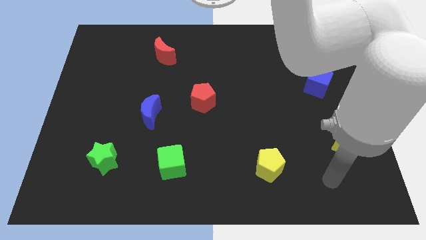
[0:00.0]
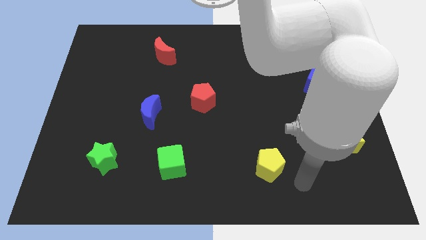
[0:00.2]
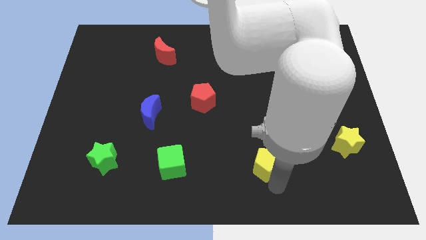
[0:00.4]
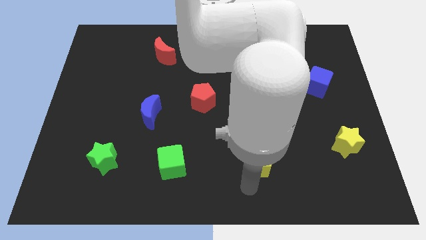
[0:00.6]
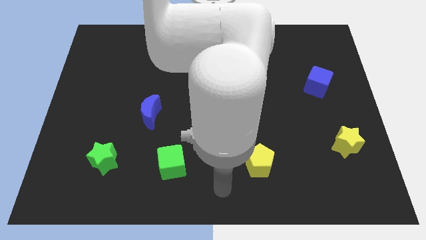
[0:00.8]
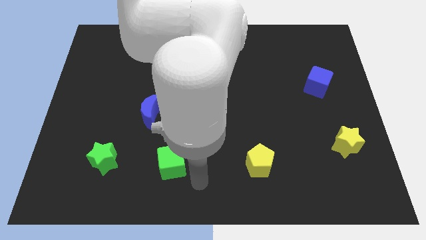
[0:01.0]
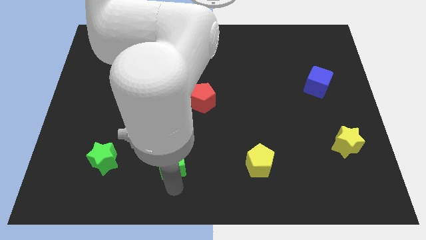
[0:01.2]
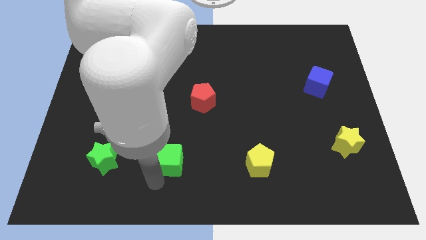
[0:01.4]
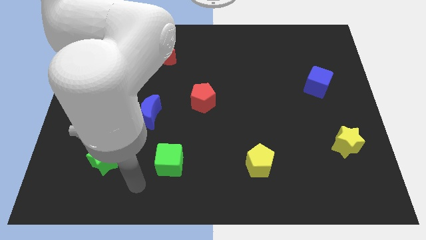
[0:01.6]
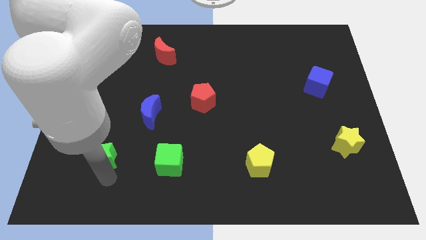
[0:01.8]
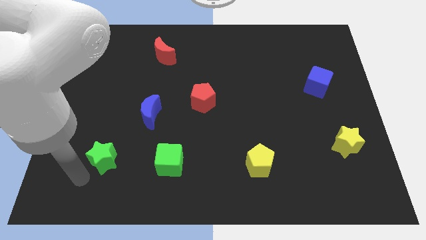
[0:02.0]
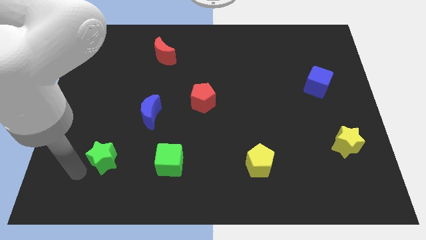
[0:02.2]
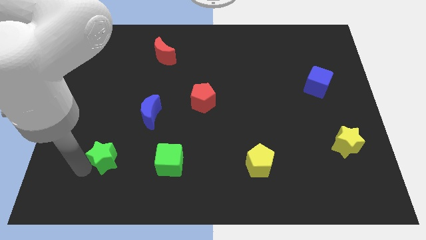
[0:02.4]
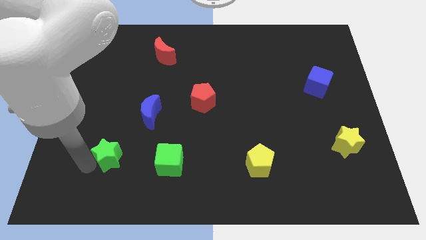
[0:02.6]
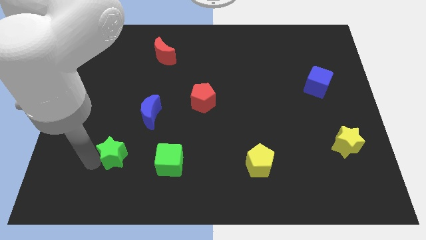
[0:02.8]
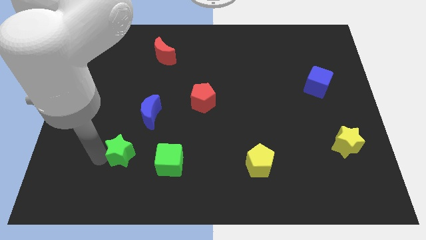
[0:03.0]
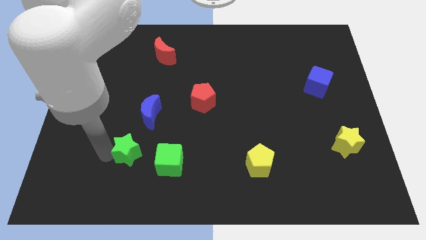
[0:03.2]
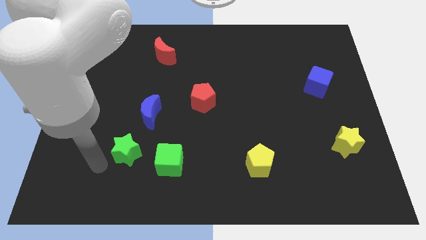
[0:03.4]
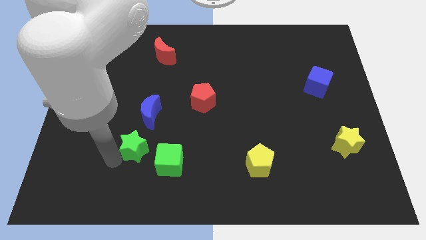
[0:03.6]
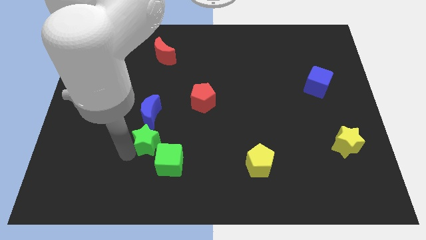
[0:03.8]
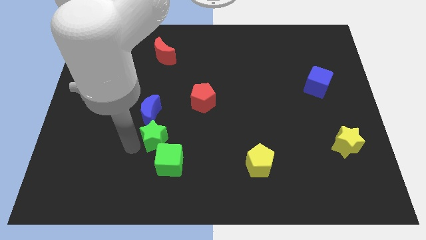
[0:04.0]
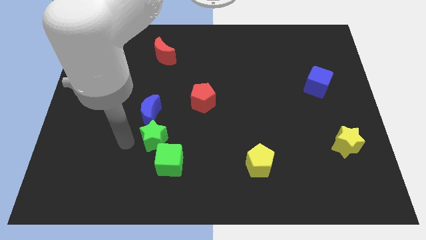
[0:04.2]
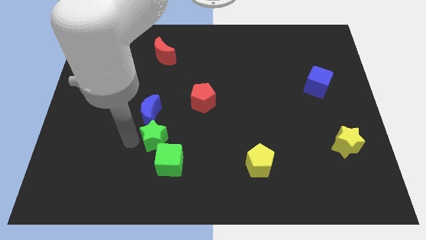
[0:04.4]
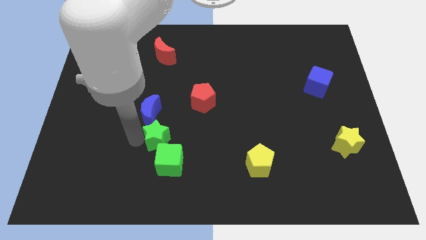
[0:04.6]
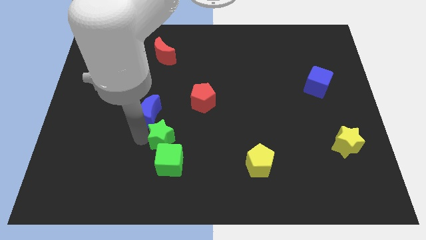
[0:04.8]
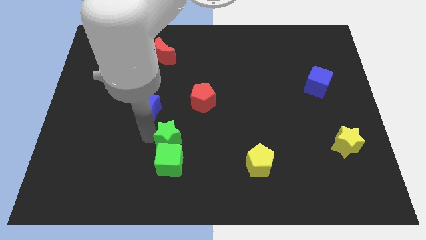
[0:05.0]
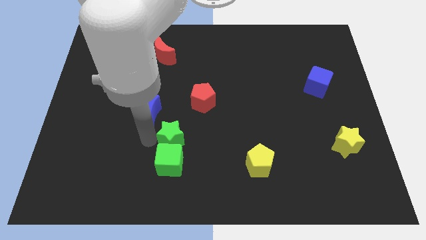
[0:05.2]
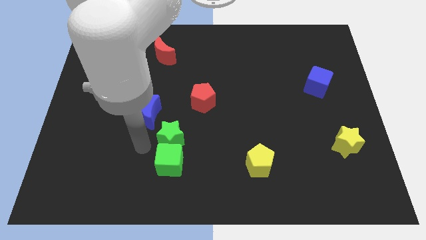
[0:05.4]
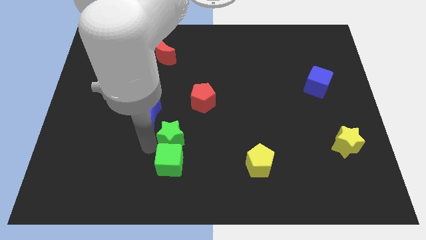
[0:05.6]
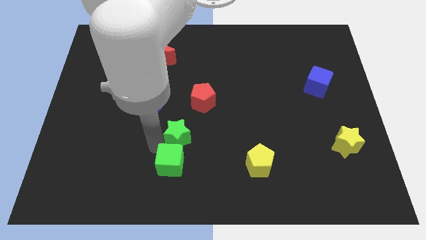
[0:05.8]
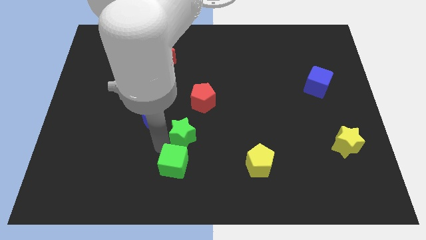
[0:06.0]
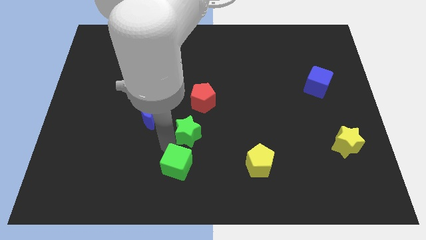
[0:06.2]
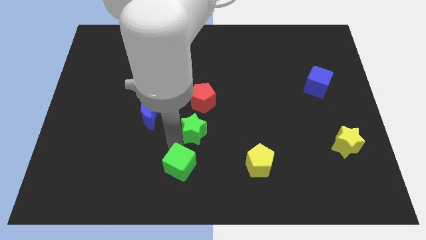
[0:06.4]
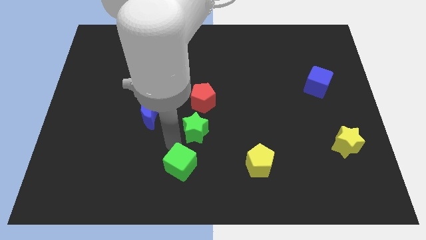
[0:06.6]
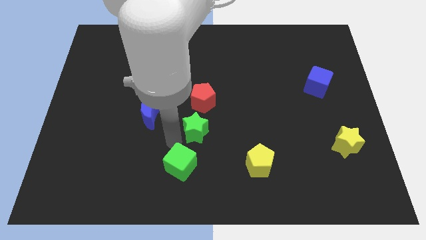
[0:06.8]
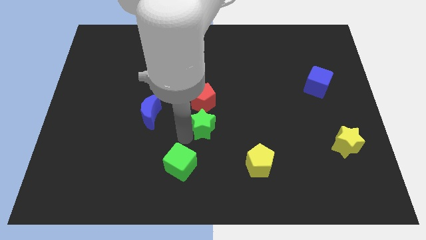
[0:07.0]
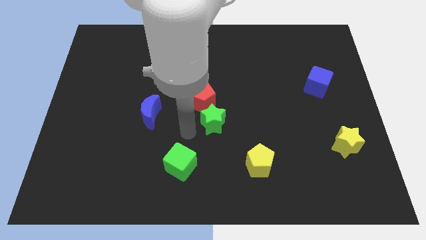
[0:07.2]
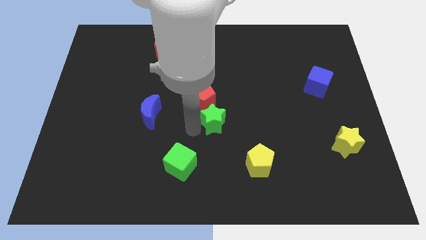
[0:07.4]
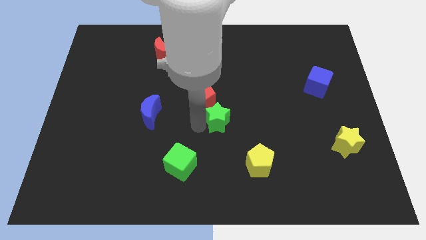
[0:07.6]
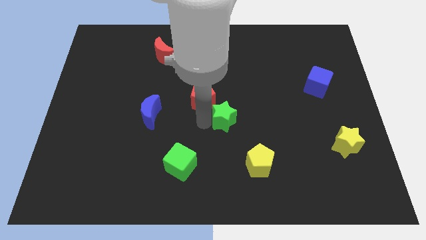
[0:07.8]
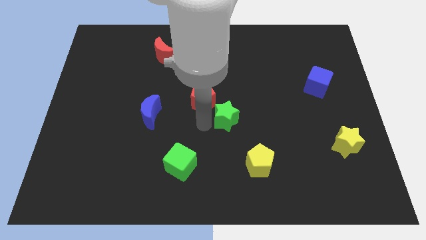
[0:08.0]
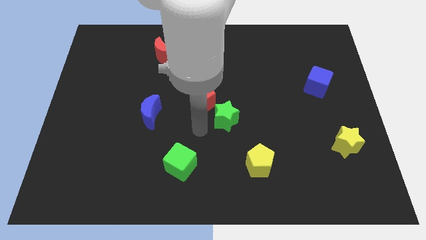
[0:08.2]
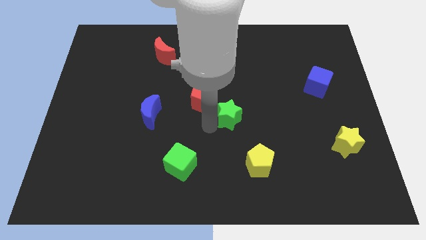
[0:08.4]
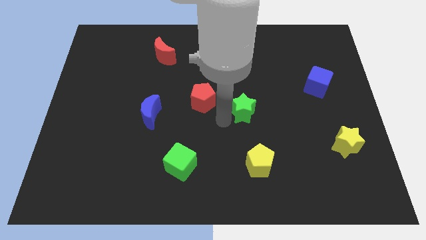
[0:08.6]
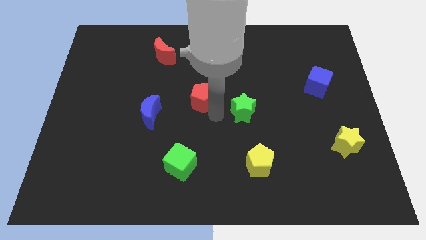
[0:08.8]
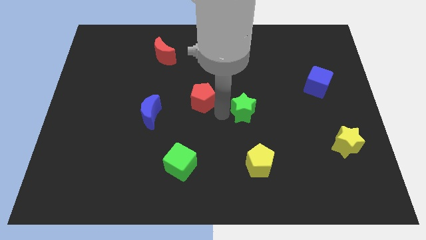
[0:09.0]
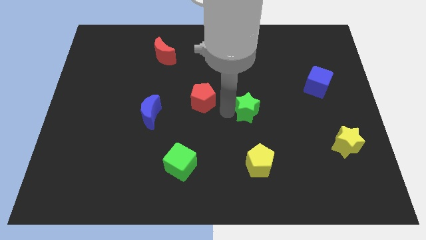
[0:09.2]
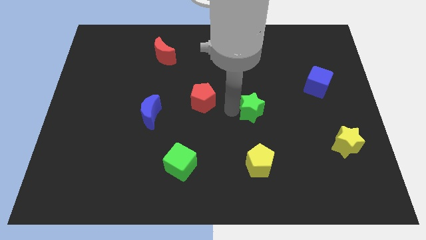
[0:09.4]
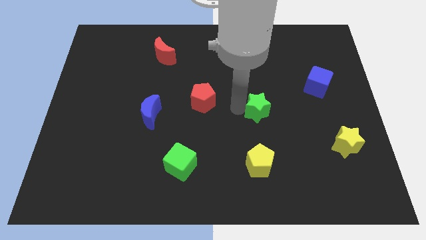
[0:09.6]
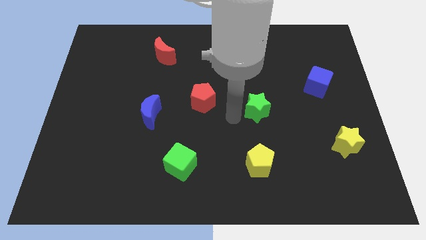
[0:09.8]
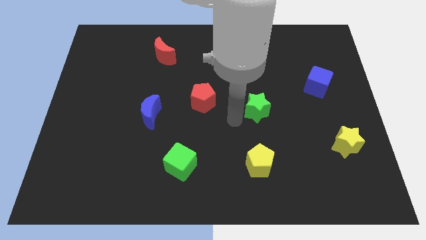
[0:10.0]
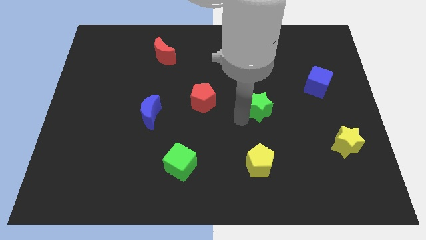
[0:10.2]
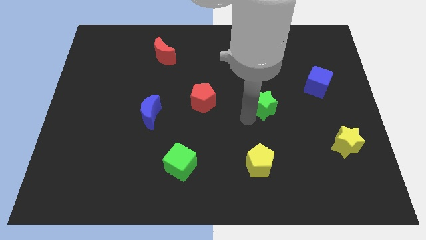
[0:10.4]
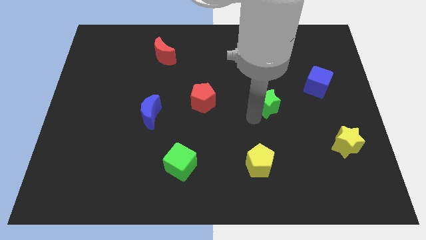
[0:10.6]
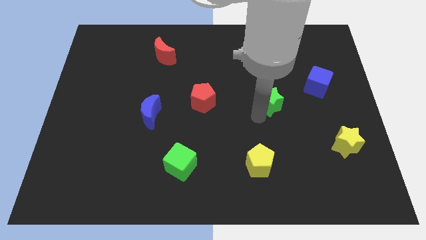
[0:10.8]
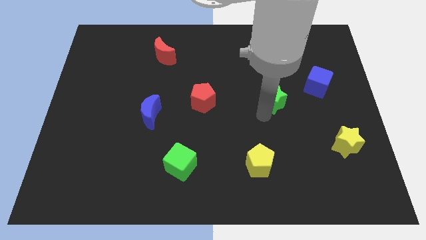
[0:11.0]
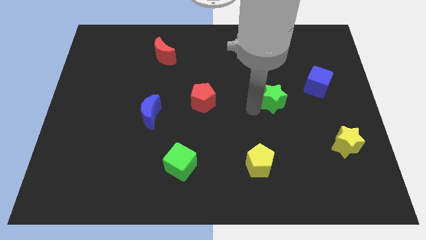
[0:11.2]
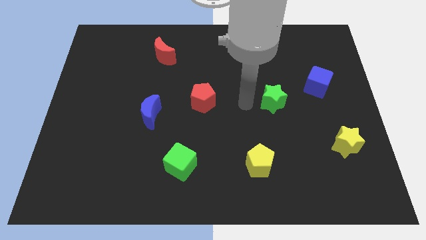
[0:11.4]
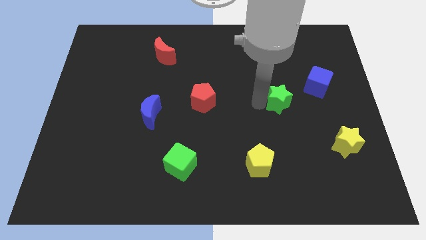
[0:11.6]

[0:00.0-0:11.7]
slide the green star to the bottom left of the blue cube
